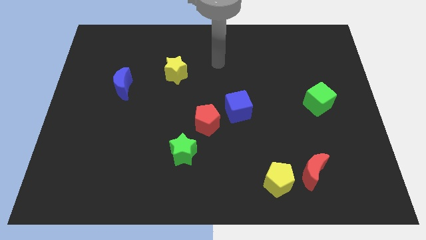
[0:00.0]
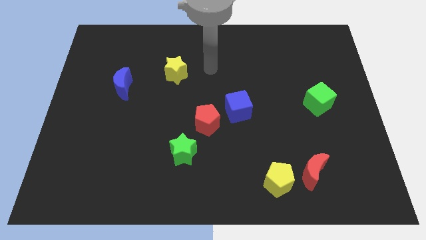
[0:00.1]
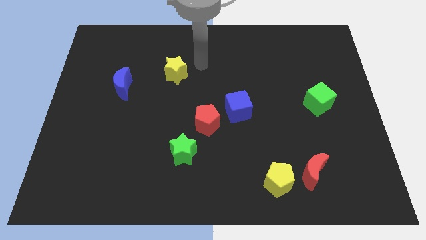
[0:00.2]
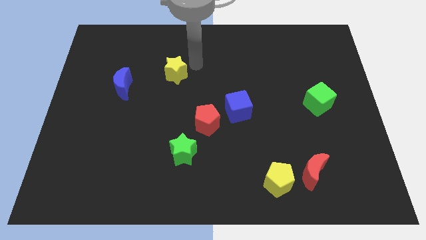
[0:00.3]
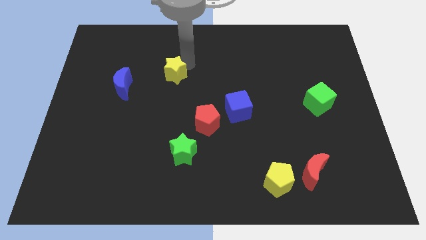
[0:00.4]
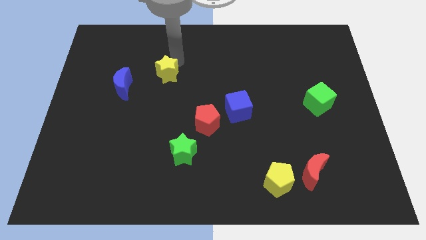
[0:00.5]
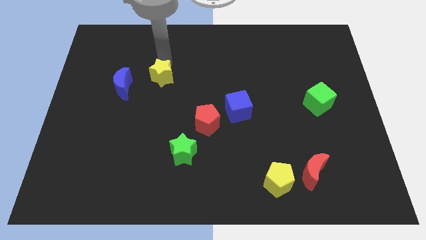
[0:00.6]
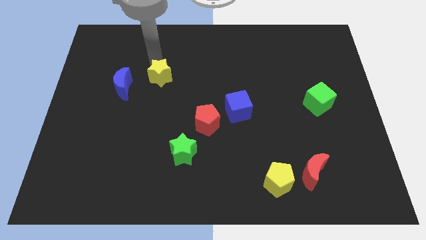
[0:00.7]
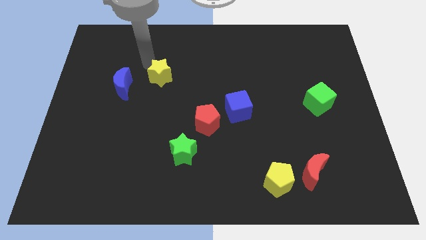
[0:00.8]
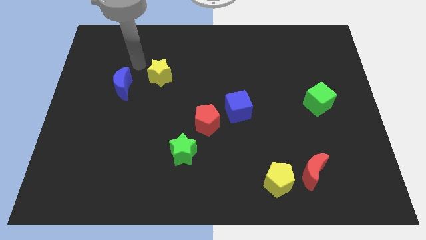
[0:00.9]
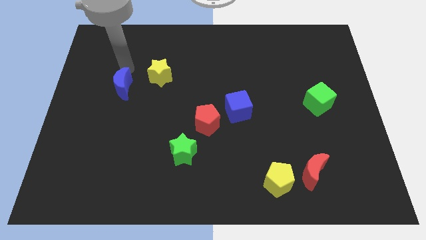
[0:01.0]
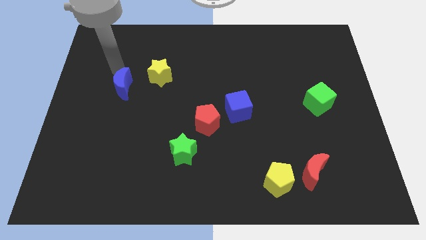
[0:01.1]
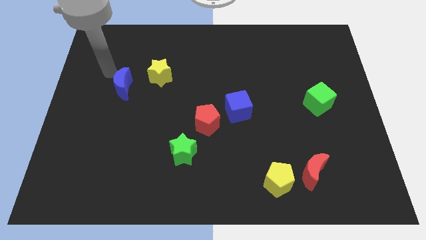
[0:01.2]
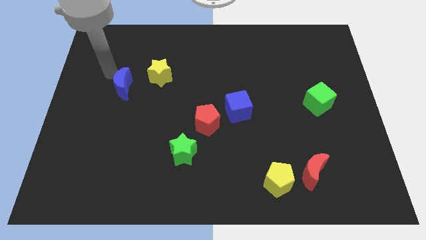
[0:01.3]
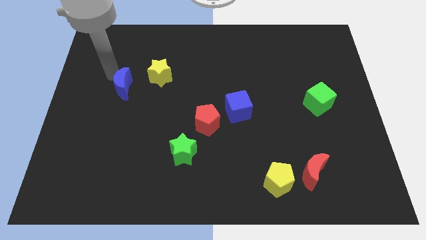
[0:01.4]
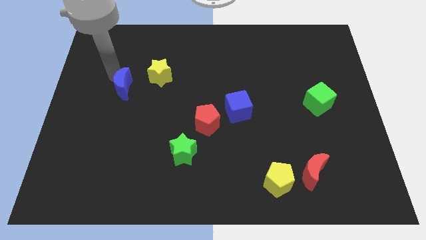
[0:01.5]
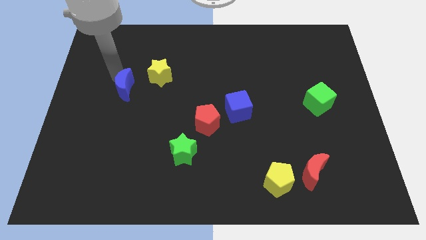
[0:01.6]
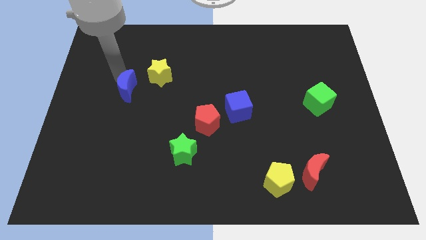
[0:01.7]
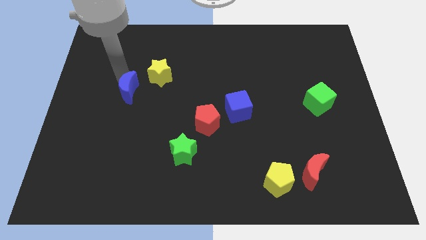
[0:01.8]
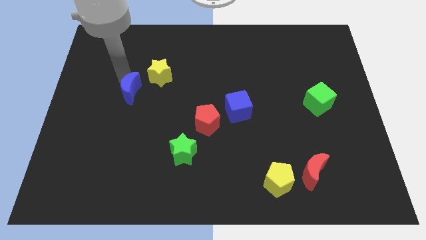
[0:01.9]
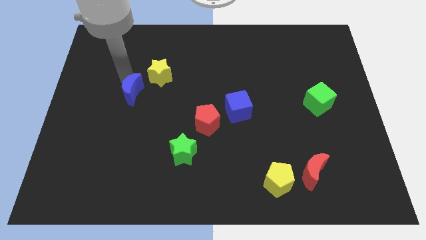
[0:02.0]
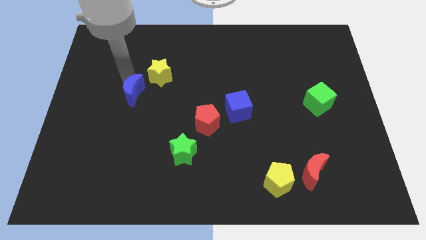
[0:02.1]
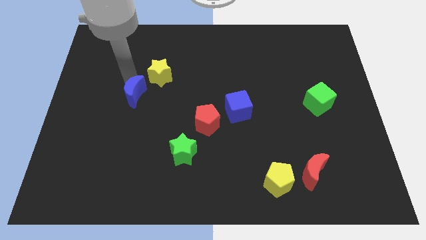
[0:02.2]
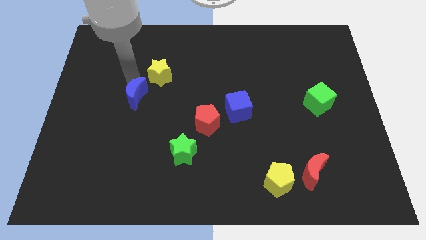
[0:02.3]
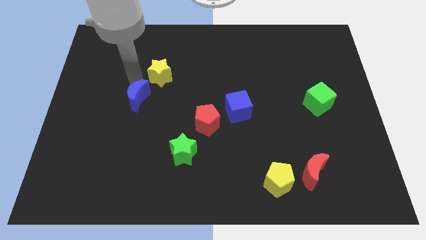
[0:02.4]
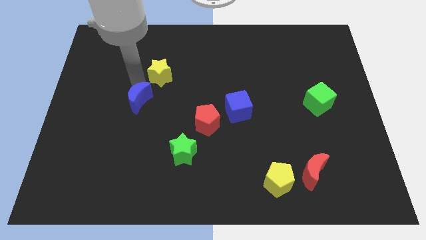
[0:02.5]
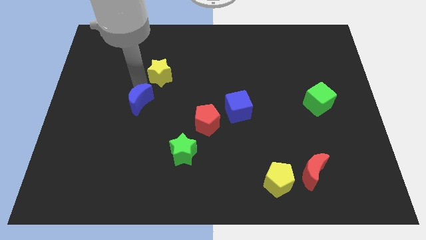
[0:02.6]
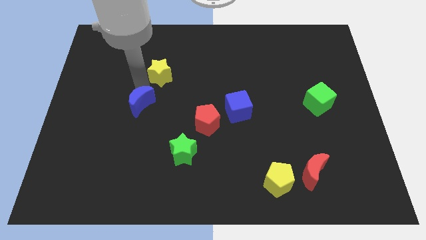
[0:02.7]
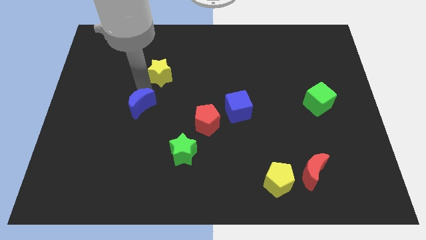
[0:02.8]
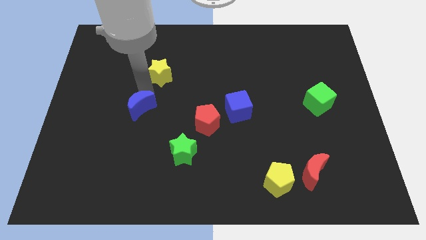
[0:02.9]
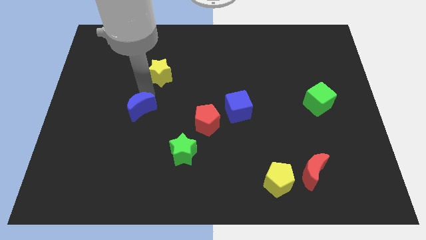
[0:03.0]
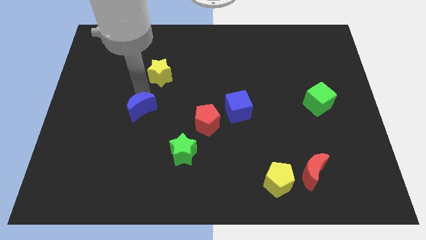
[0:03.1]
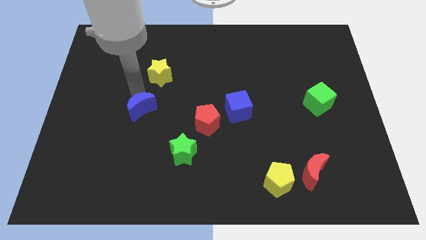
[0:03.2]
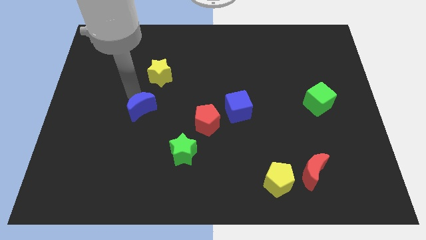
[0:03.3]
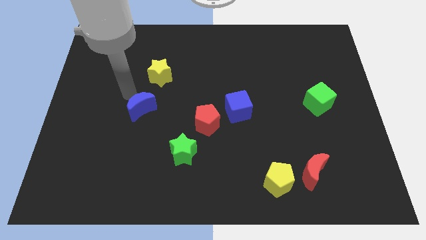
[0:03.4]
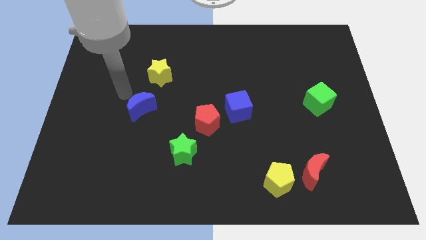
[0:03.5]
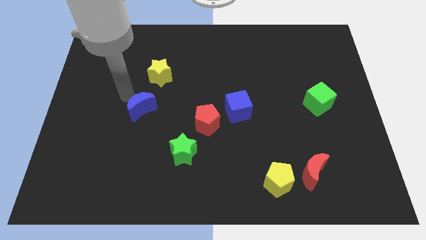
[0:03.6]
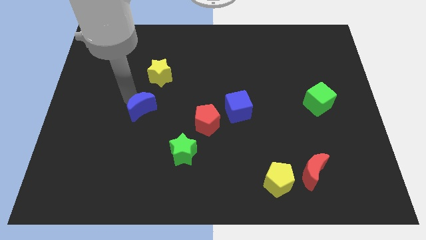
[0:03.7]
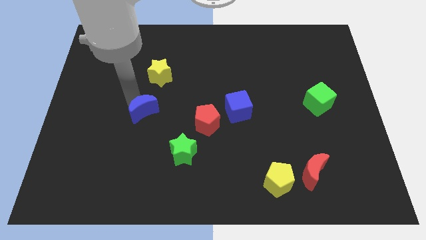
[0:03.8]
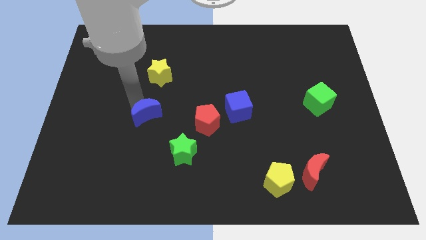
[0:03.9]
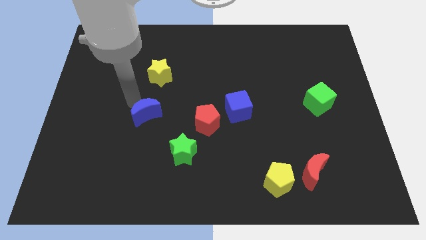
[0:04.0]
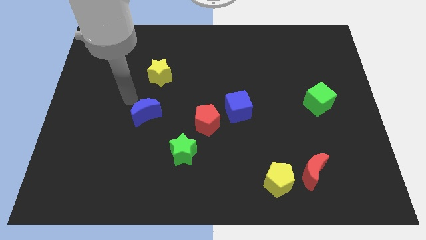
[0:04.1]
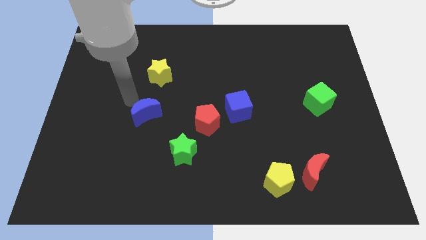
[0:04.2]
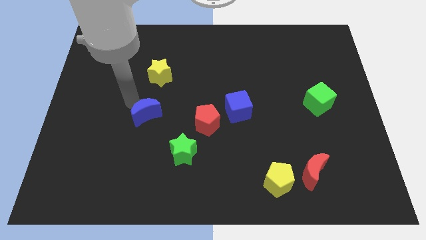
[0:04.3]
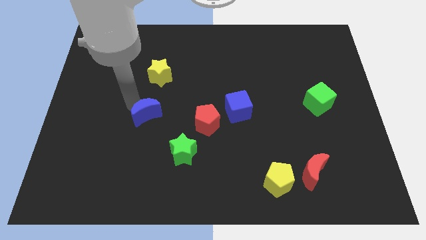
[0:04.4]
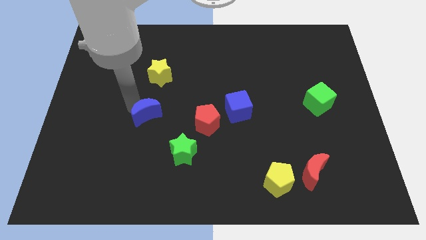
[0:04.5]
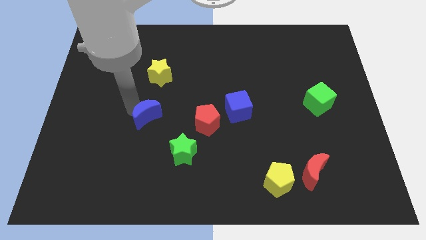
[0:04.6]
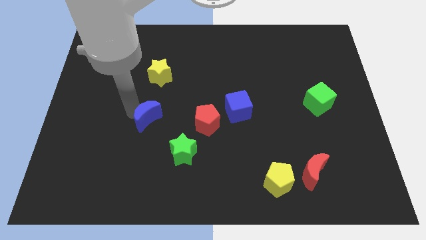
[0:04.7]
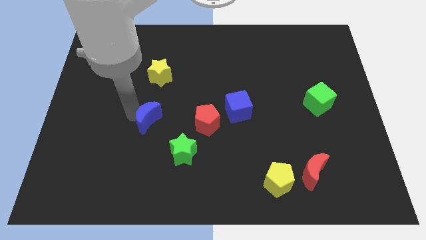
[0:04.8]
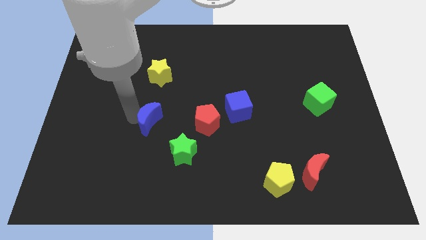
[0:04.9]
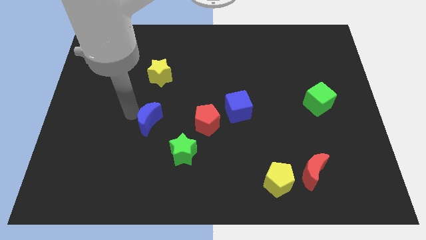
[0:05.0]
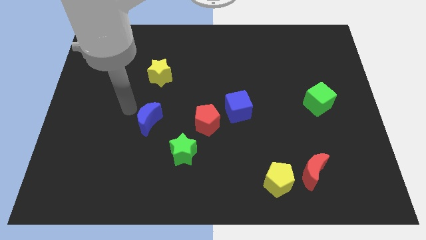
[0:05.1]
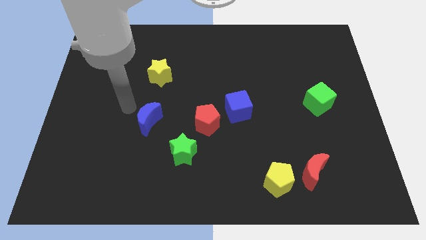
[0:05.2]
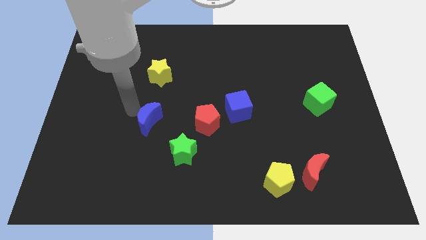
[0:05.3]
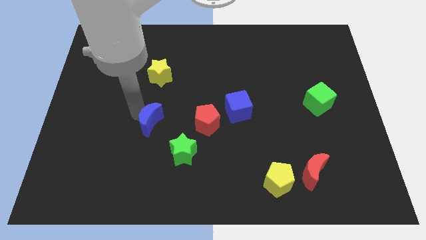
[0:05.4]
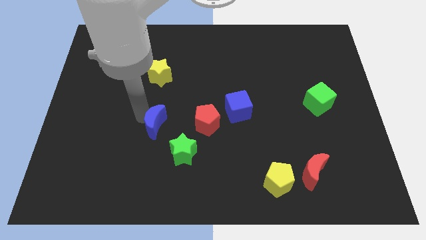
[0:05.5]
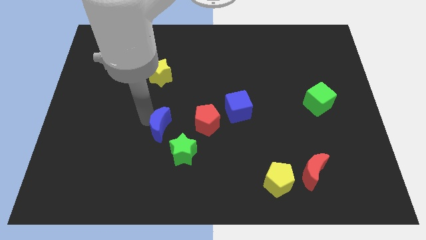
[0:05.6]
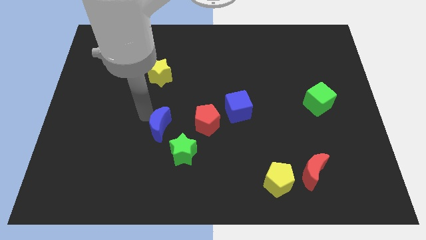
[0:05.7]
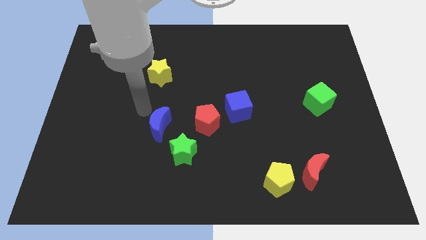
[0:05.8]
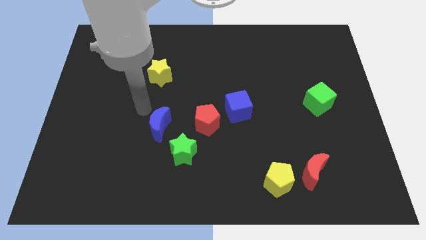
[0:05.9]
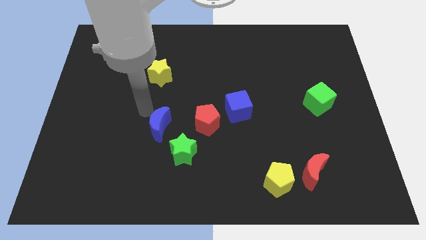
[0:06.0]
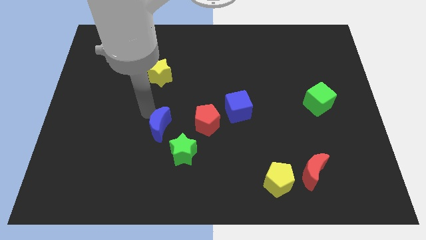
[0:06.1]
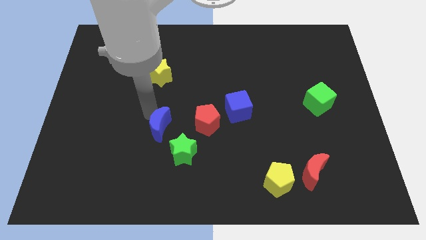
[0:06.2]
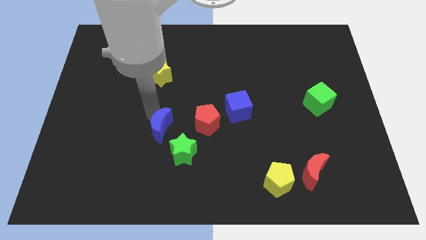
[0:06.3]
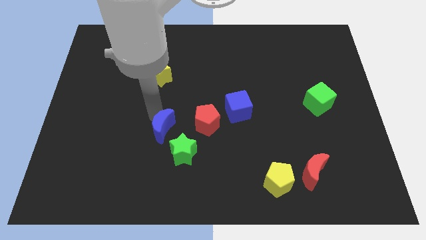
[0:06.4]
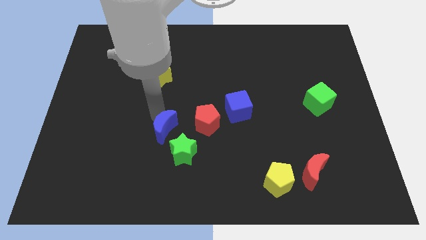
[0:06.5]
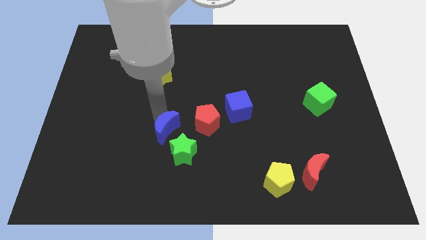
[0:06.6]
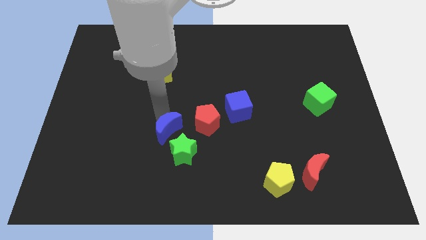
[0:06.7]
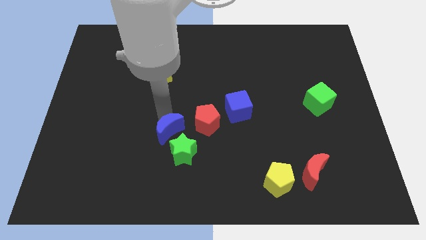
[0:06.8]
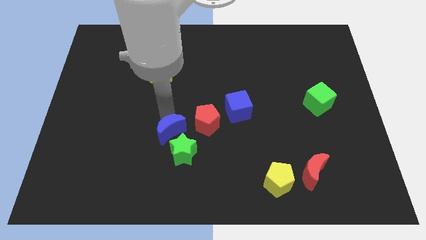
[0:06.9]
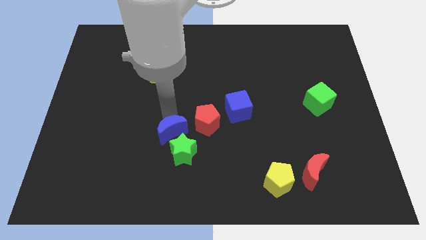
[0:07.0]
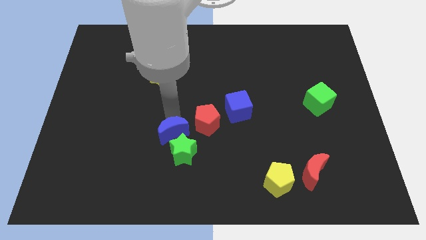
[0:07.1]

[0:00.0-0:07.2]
put the blue moon to the green star
